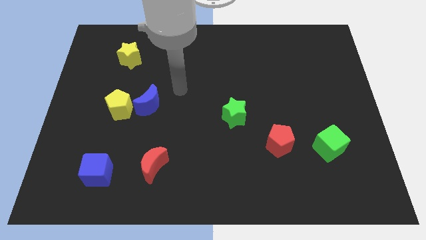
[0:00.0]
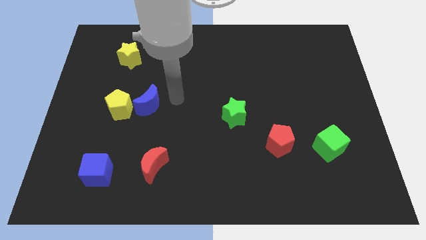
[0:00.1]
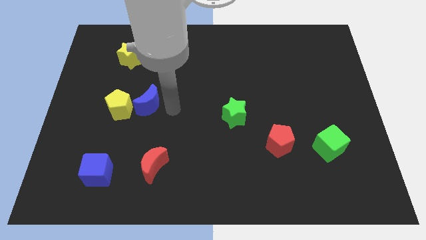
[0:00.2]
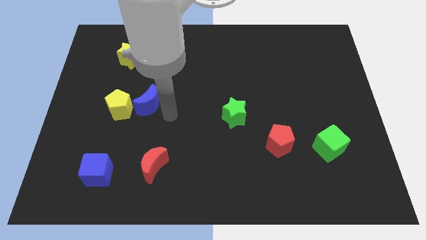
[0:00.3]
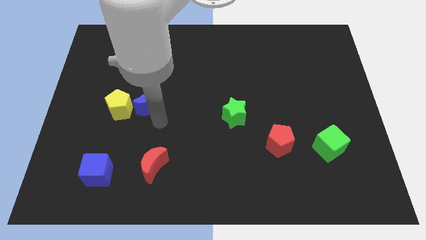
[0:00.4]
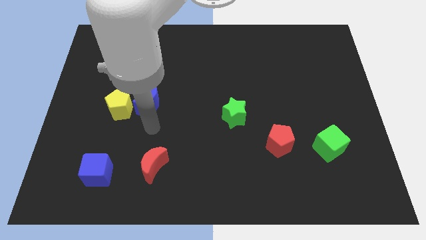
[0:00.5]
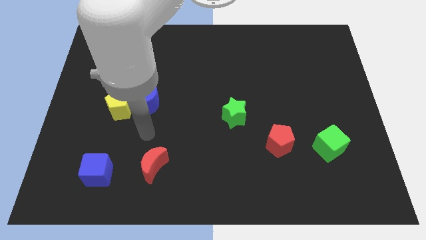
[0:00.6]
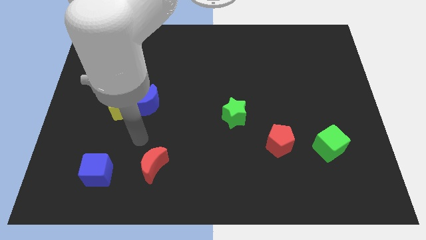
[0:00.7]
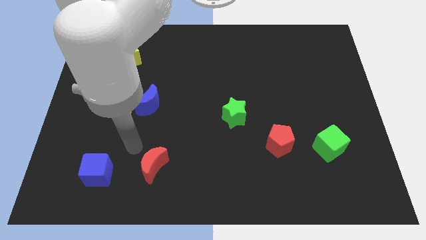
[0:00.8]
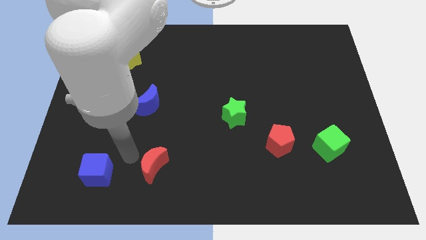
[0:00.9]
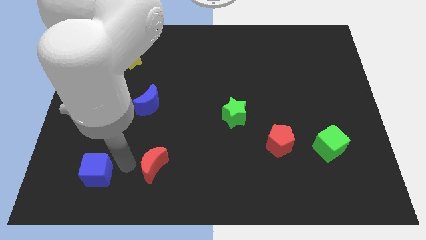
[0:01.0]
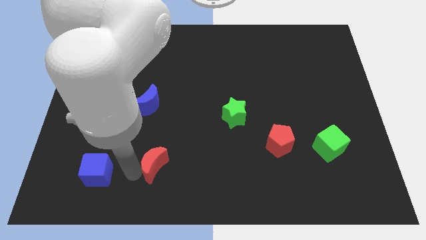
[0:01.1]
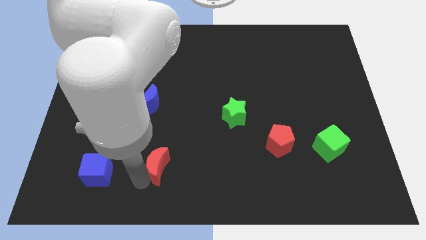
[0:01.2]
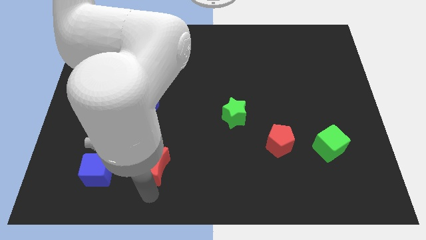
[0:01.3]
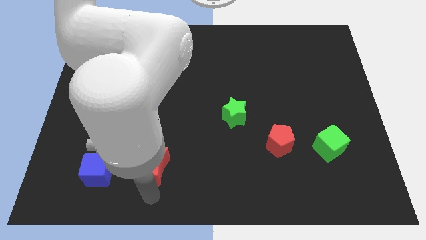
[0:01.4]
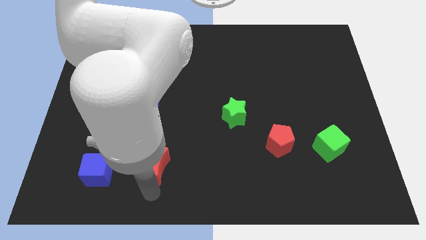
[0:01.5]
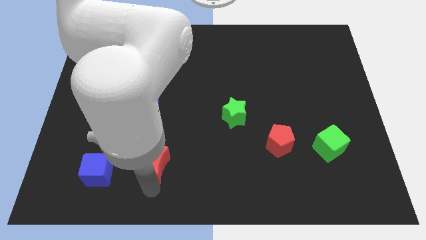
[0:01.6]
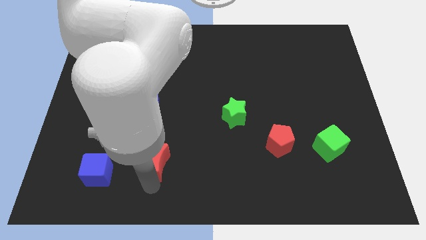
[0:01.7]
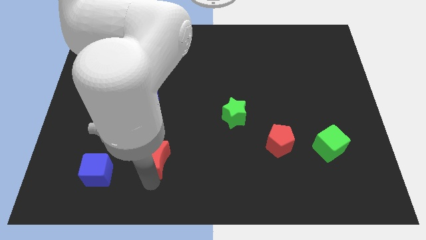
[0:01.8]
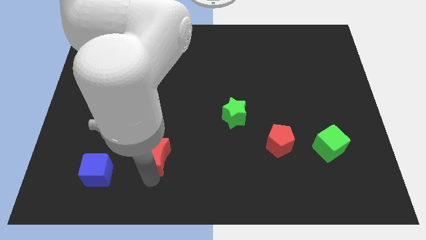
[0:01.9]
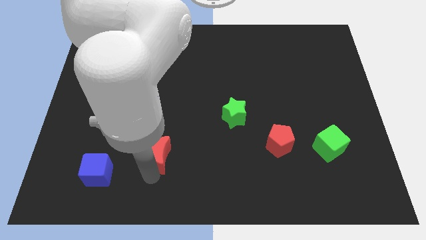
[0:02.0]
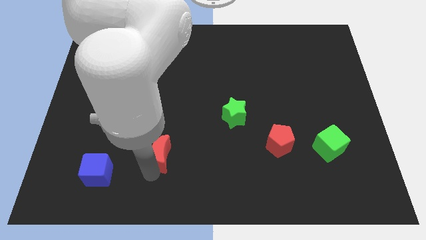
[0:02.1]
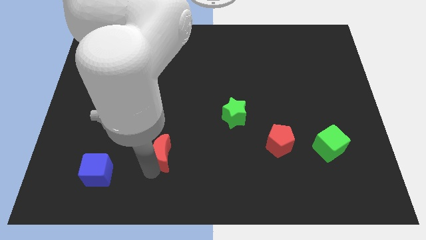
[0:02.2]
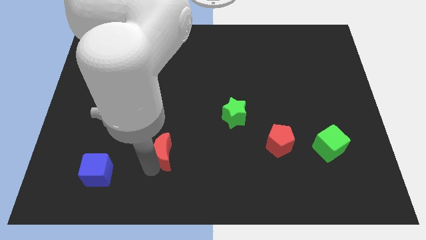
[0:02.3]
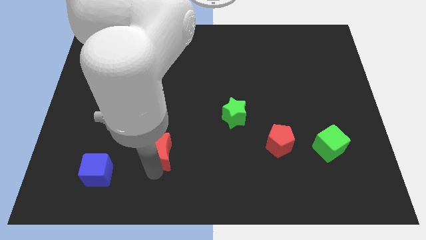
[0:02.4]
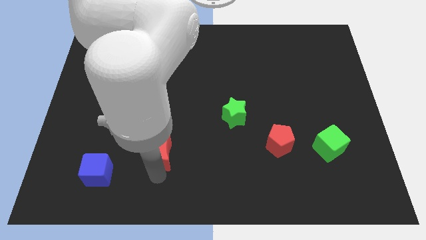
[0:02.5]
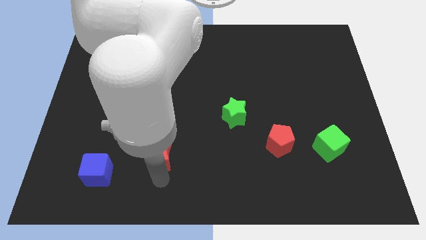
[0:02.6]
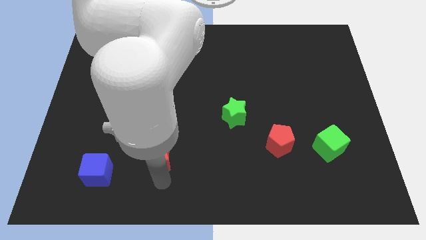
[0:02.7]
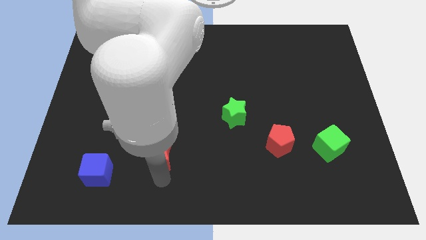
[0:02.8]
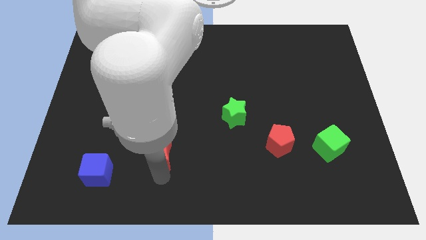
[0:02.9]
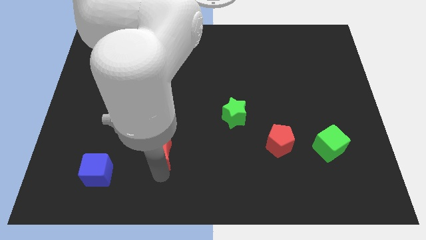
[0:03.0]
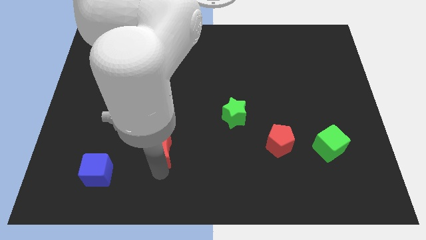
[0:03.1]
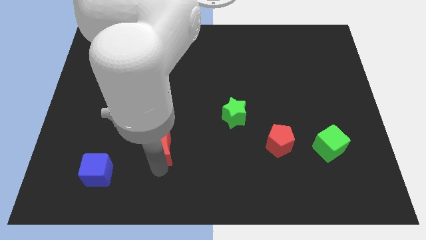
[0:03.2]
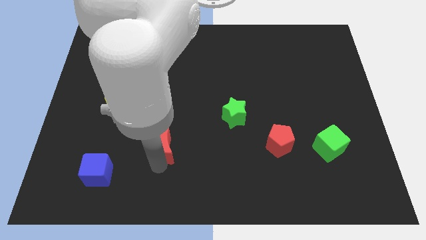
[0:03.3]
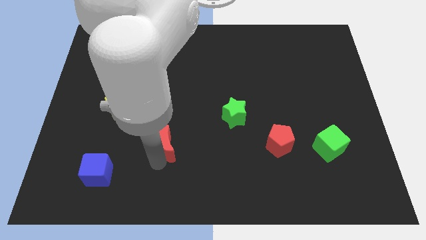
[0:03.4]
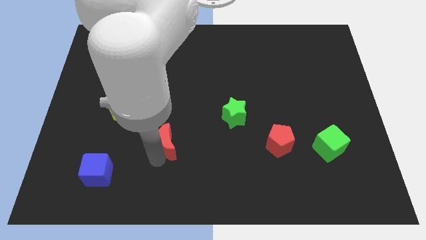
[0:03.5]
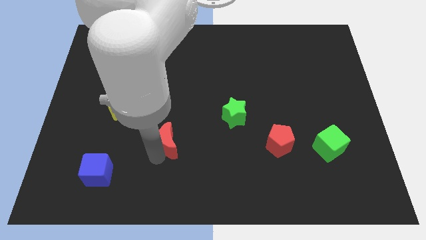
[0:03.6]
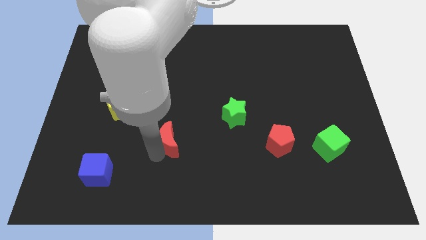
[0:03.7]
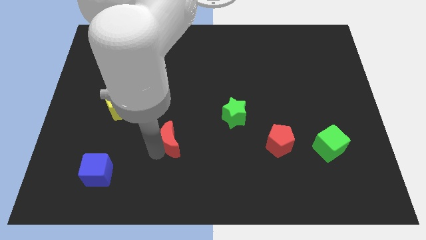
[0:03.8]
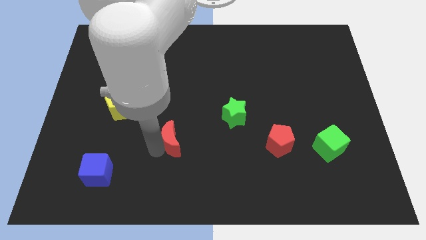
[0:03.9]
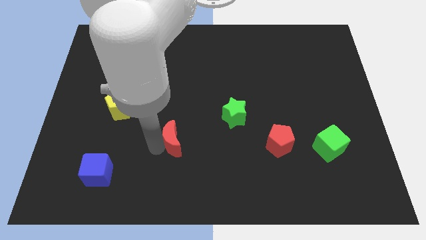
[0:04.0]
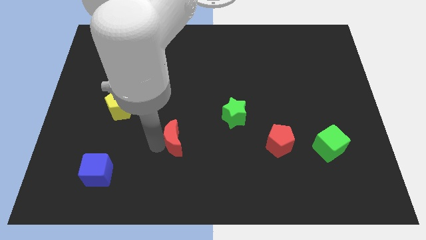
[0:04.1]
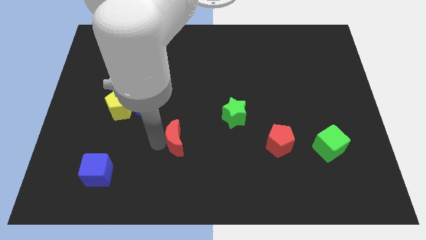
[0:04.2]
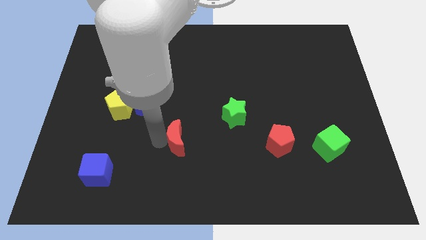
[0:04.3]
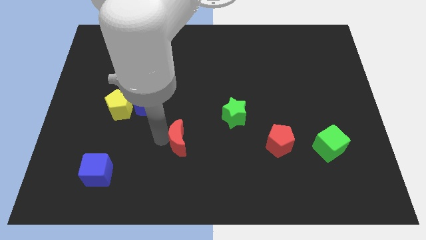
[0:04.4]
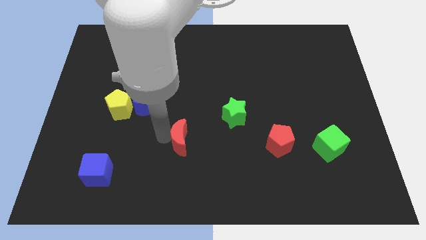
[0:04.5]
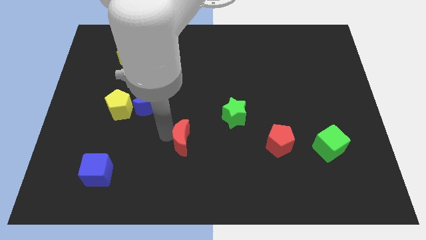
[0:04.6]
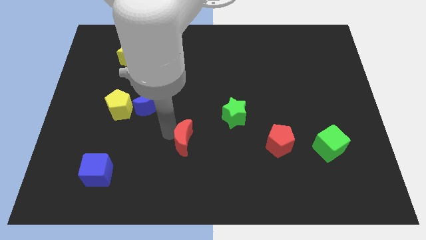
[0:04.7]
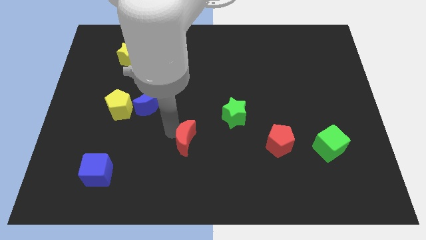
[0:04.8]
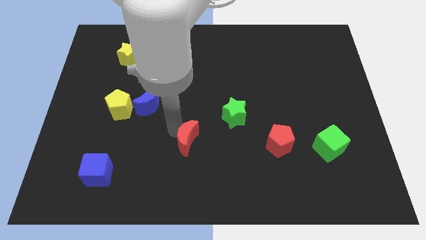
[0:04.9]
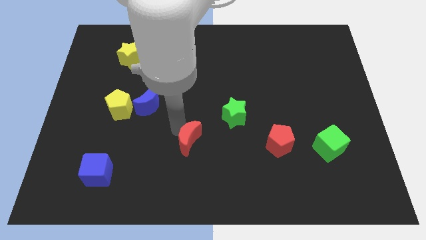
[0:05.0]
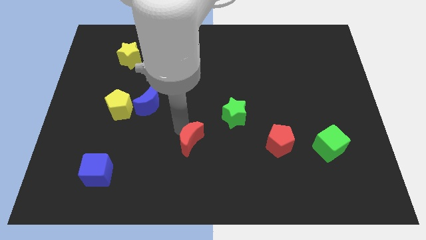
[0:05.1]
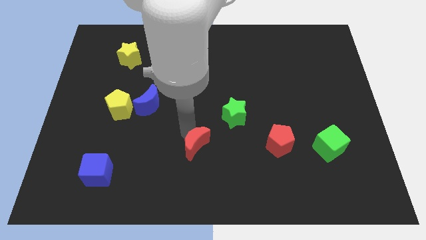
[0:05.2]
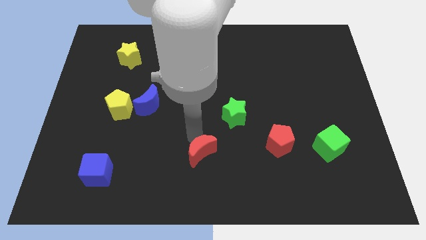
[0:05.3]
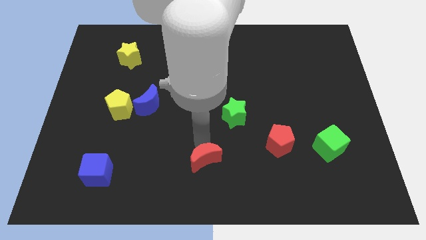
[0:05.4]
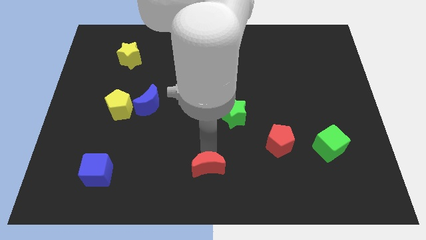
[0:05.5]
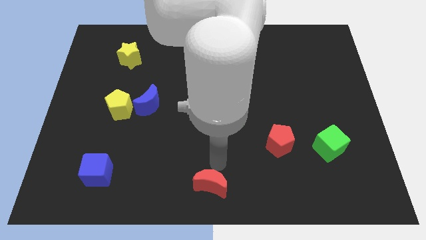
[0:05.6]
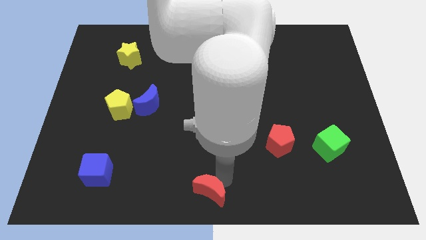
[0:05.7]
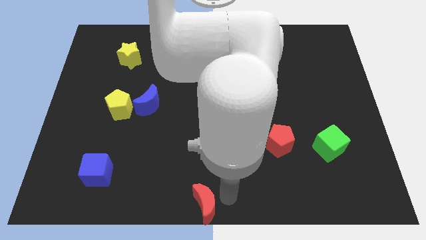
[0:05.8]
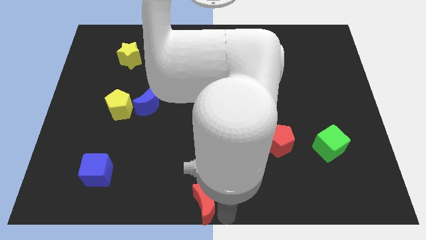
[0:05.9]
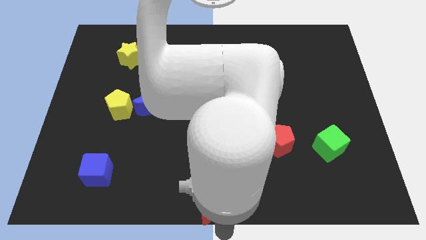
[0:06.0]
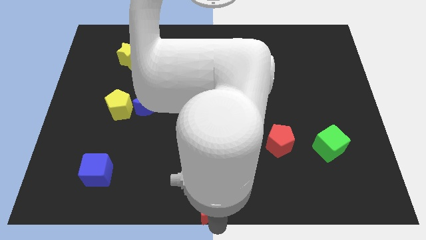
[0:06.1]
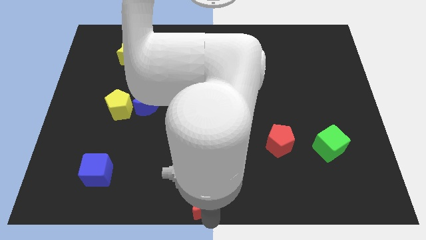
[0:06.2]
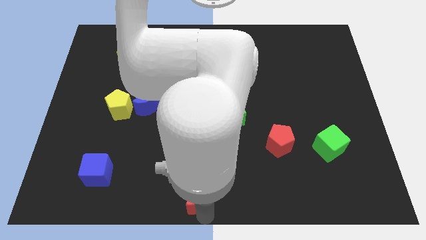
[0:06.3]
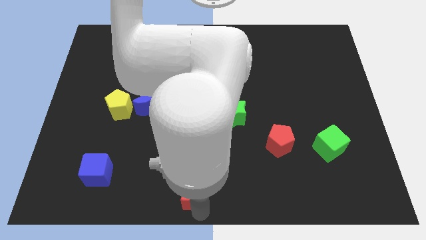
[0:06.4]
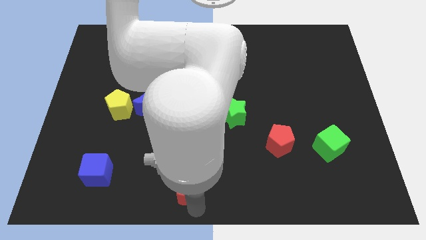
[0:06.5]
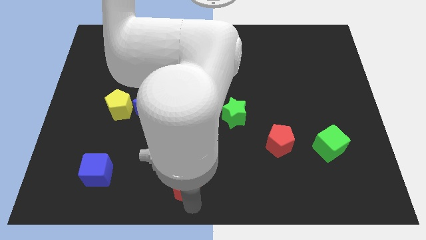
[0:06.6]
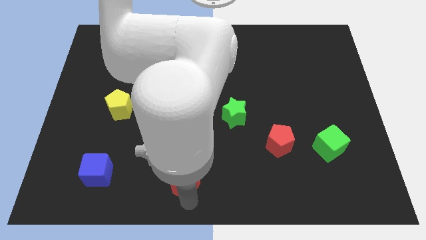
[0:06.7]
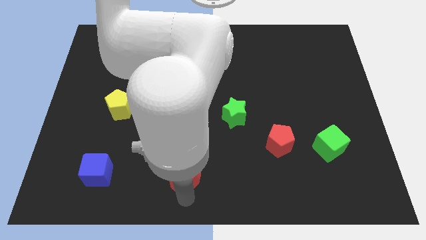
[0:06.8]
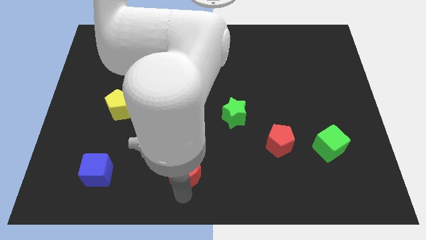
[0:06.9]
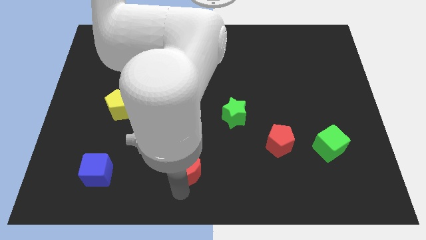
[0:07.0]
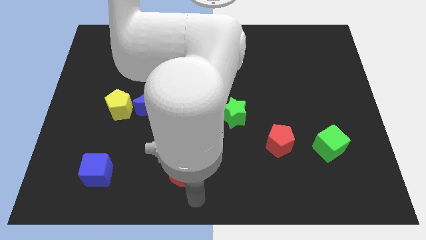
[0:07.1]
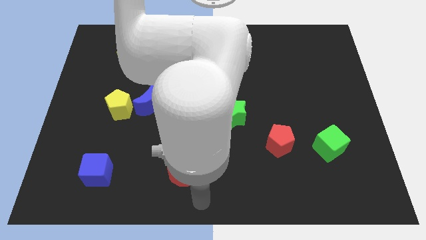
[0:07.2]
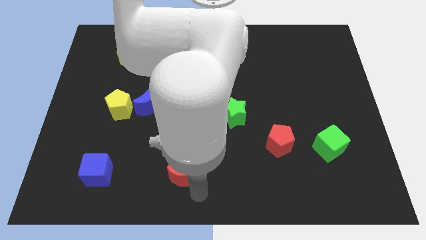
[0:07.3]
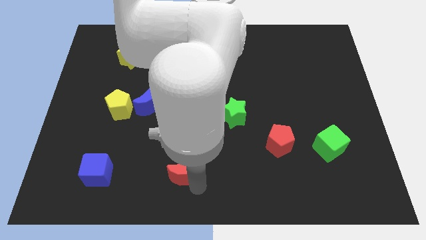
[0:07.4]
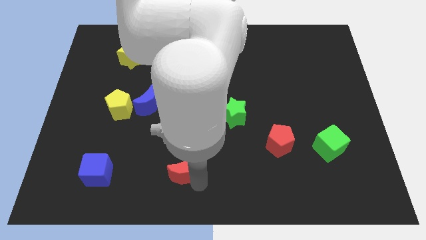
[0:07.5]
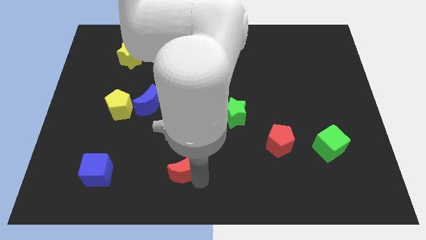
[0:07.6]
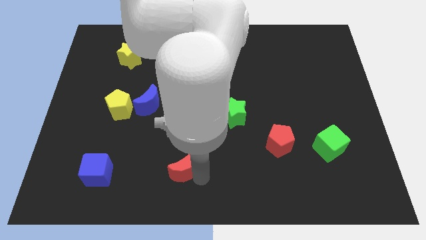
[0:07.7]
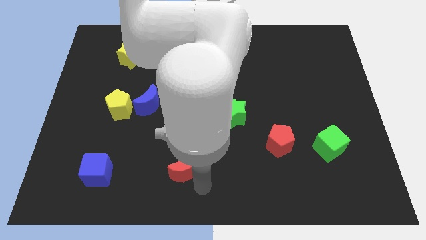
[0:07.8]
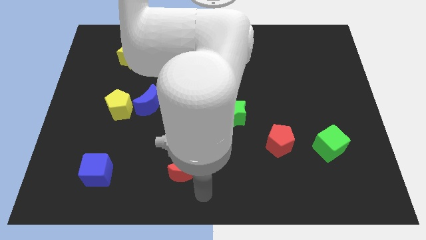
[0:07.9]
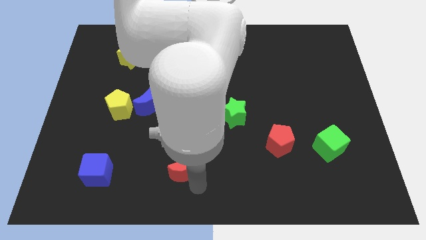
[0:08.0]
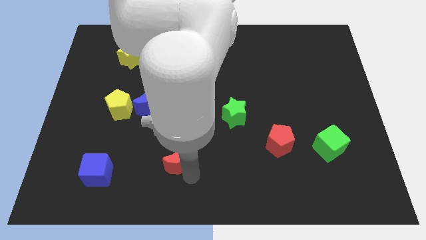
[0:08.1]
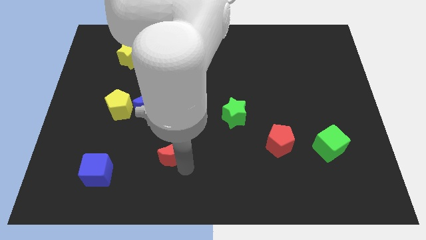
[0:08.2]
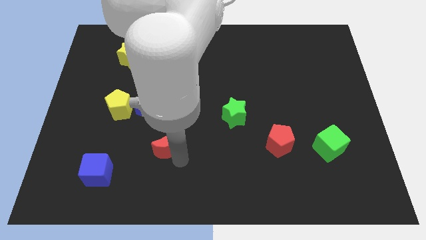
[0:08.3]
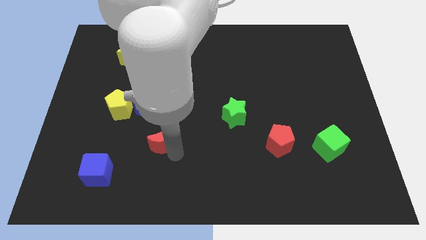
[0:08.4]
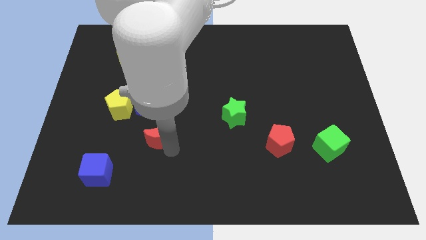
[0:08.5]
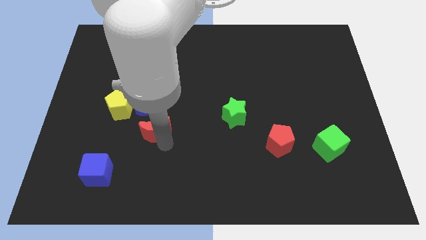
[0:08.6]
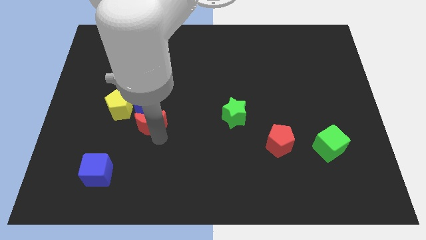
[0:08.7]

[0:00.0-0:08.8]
slide the red moon next to the blue moon
